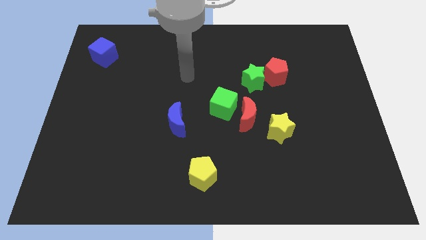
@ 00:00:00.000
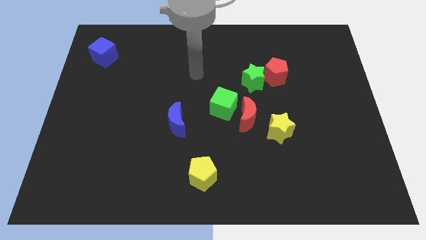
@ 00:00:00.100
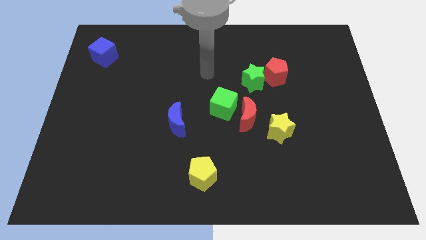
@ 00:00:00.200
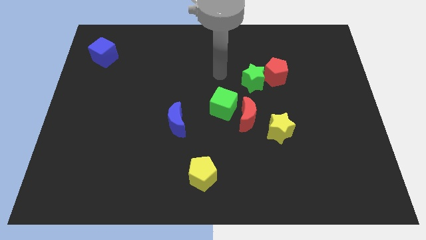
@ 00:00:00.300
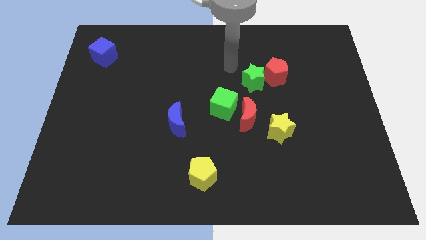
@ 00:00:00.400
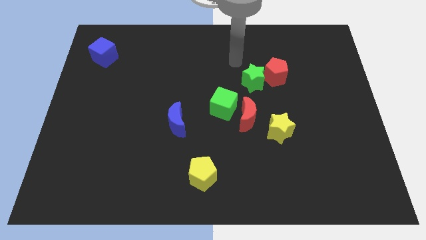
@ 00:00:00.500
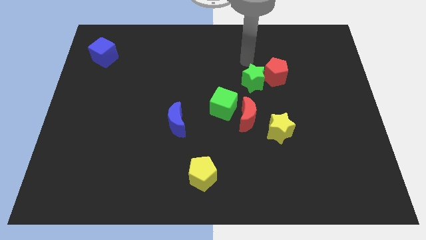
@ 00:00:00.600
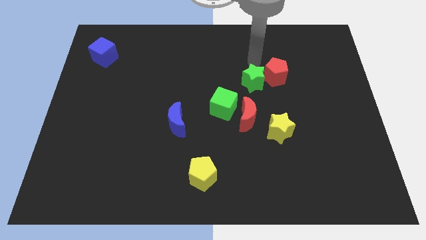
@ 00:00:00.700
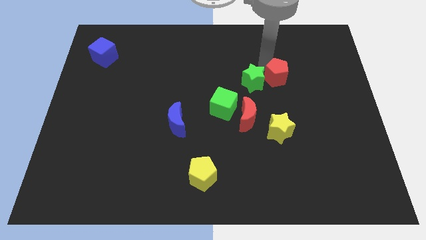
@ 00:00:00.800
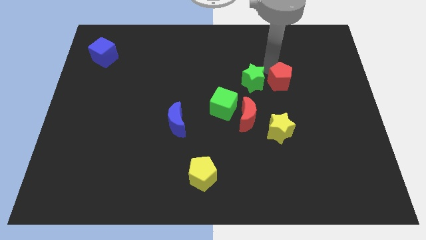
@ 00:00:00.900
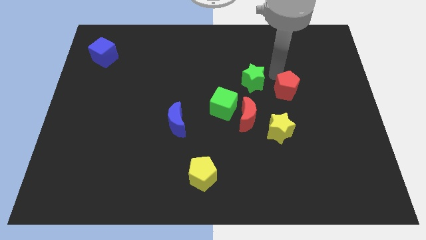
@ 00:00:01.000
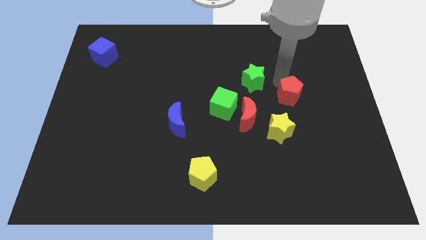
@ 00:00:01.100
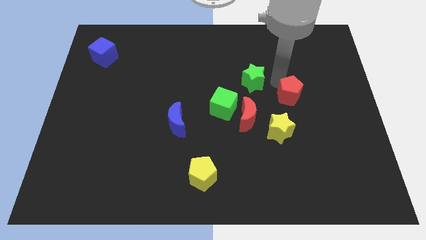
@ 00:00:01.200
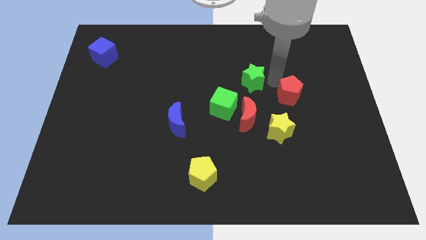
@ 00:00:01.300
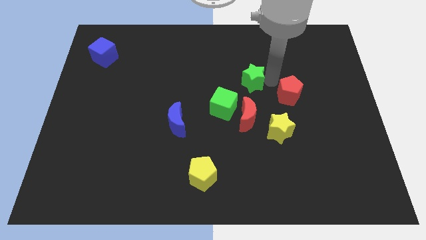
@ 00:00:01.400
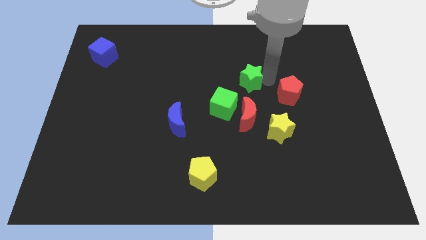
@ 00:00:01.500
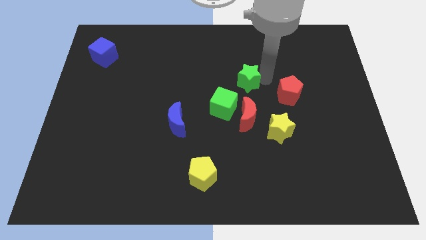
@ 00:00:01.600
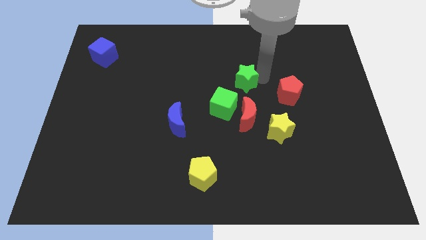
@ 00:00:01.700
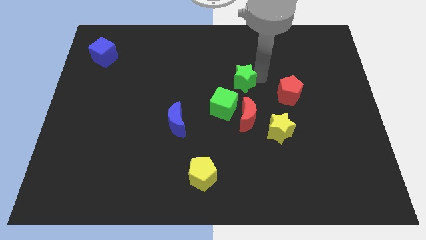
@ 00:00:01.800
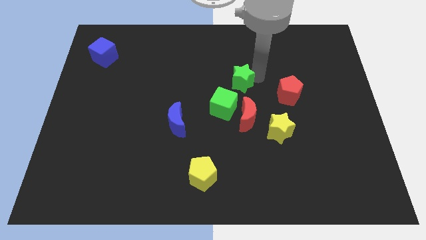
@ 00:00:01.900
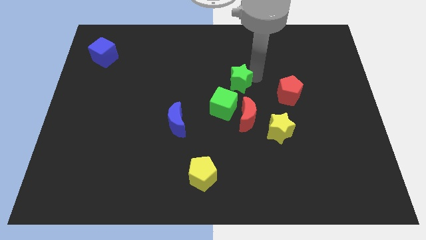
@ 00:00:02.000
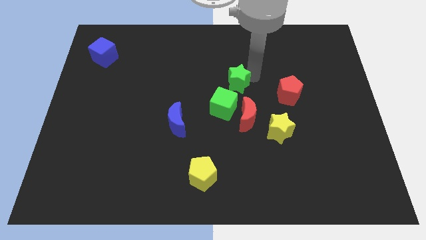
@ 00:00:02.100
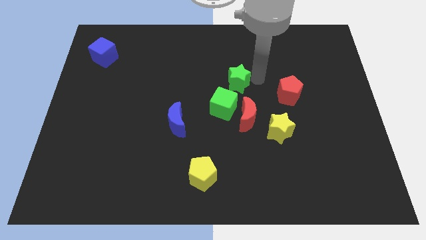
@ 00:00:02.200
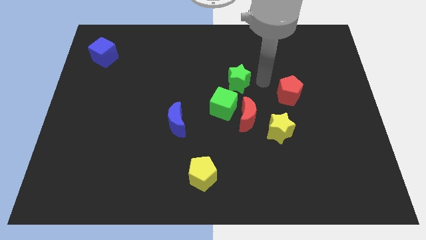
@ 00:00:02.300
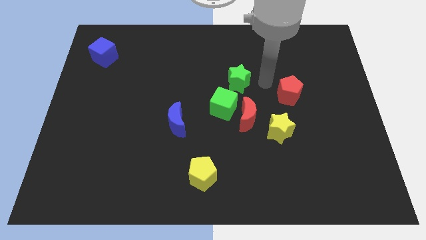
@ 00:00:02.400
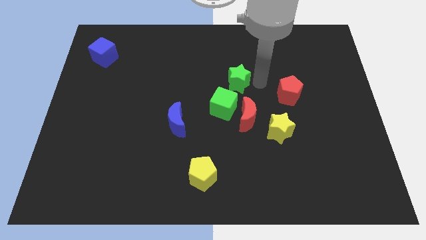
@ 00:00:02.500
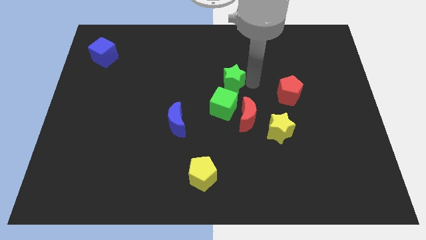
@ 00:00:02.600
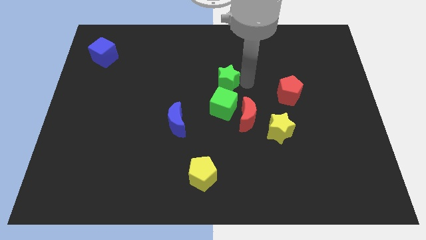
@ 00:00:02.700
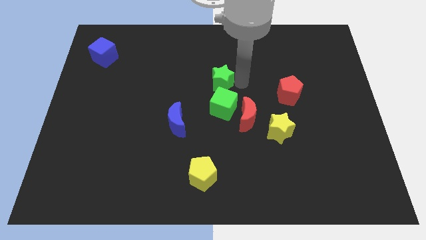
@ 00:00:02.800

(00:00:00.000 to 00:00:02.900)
slightly push the green star left

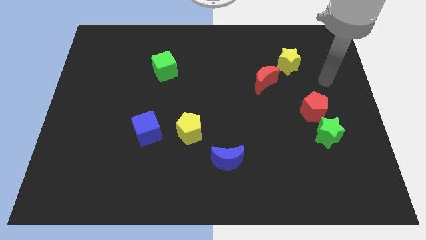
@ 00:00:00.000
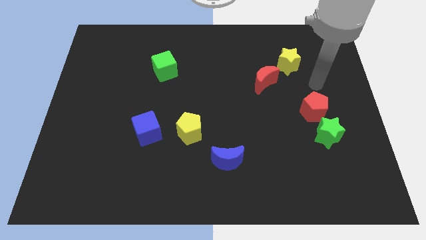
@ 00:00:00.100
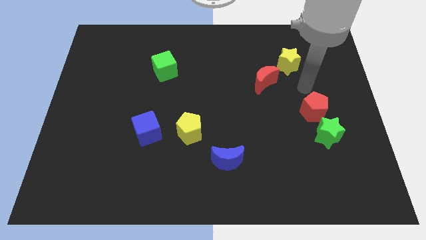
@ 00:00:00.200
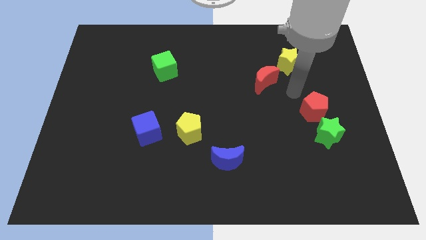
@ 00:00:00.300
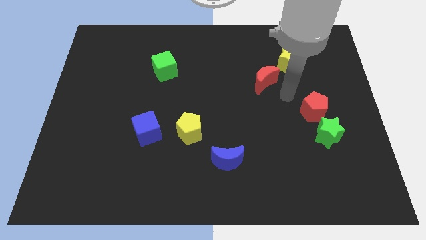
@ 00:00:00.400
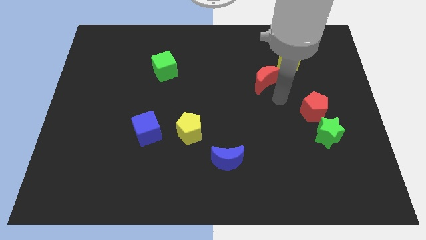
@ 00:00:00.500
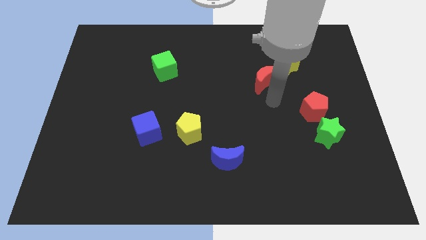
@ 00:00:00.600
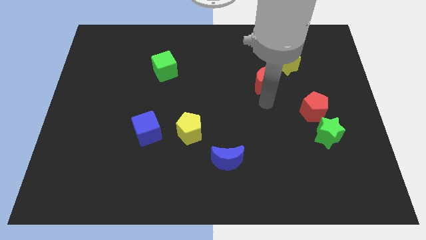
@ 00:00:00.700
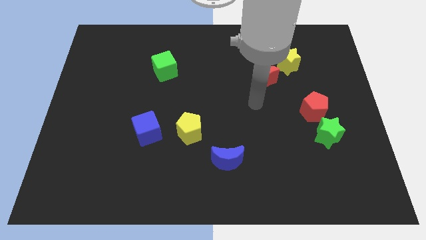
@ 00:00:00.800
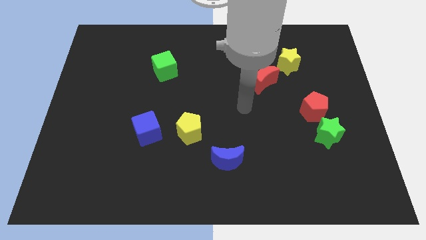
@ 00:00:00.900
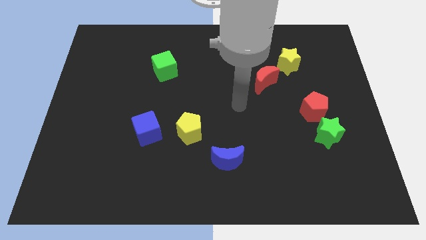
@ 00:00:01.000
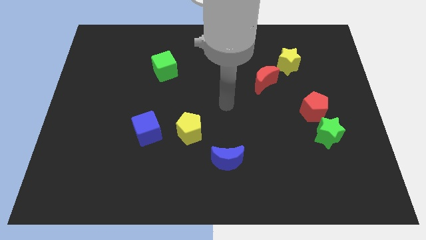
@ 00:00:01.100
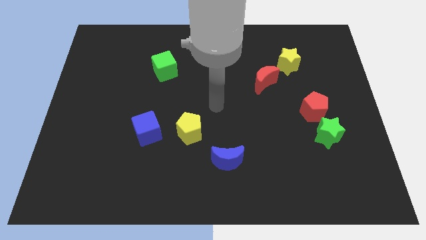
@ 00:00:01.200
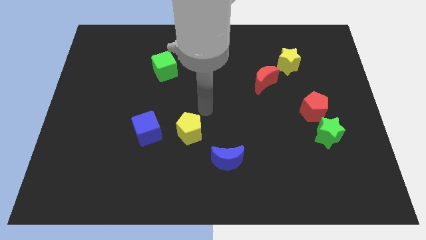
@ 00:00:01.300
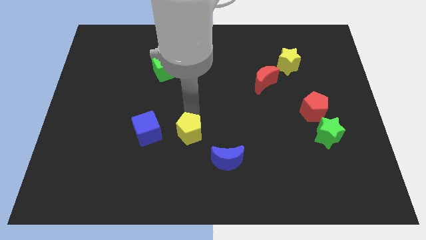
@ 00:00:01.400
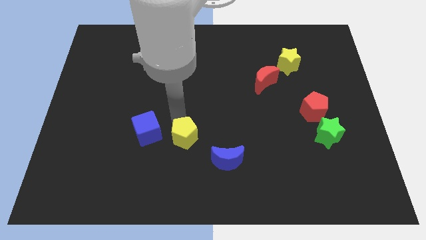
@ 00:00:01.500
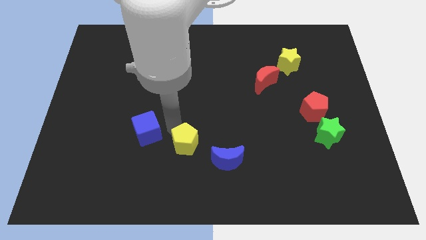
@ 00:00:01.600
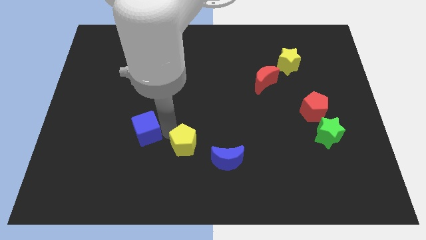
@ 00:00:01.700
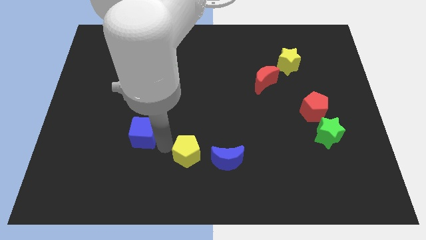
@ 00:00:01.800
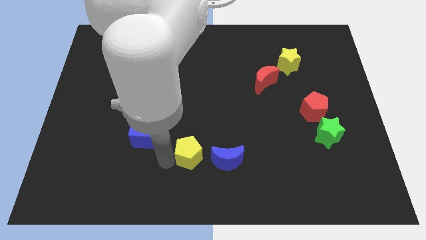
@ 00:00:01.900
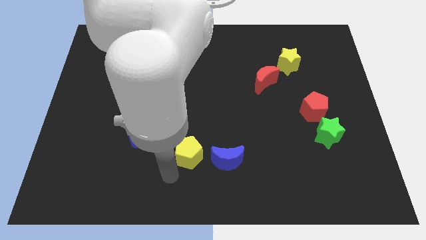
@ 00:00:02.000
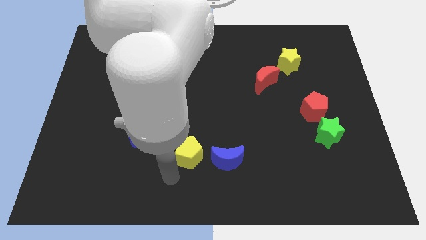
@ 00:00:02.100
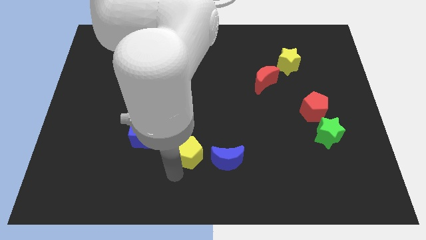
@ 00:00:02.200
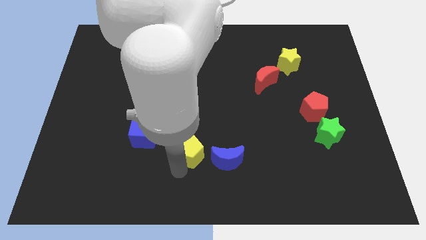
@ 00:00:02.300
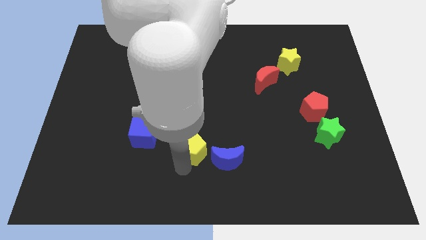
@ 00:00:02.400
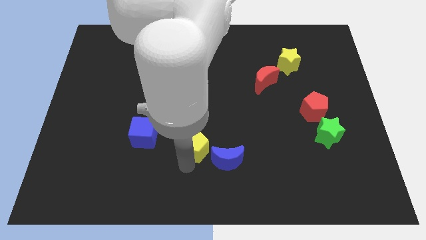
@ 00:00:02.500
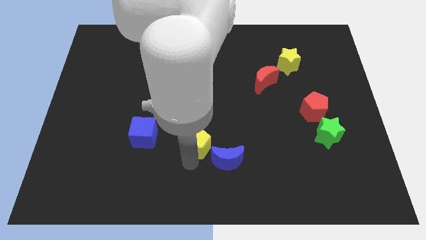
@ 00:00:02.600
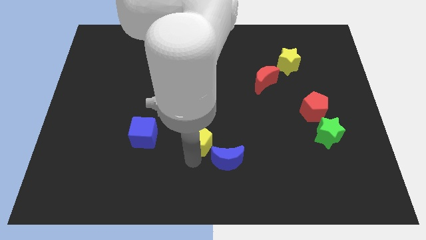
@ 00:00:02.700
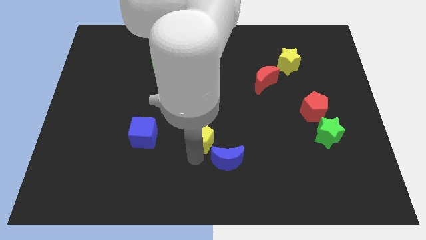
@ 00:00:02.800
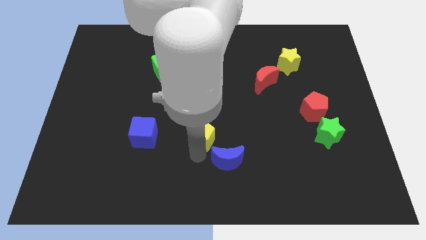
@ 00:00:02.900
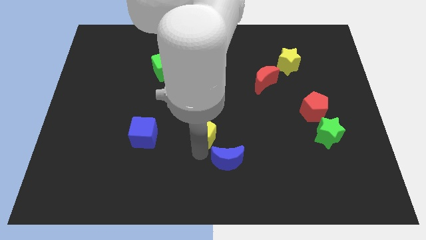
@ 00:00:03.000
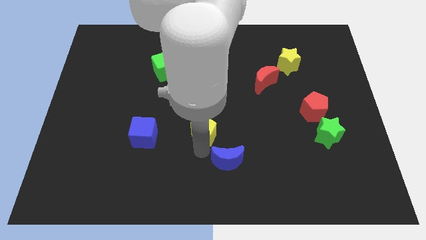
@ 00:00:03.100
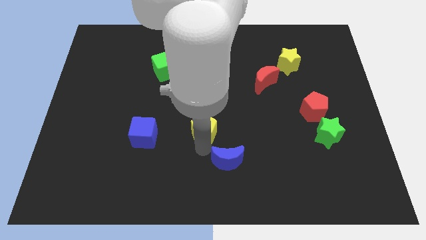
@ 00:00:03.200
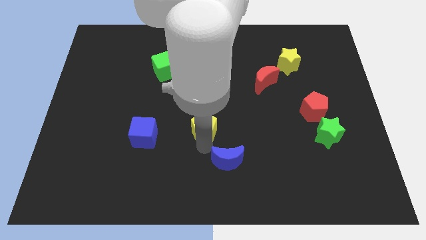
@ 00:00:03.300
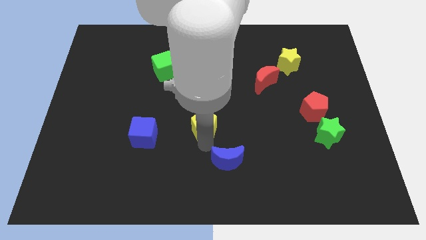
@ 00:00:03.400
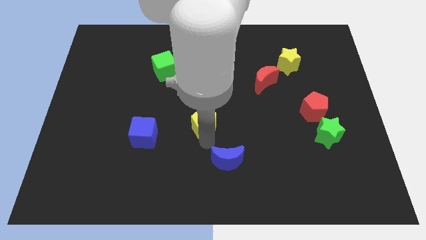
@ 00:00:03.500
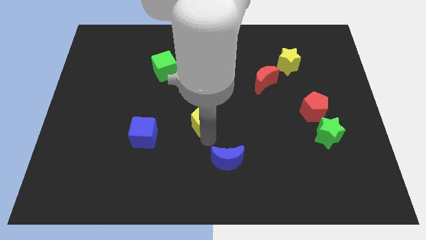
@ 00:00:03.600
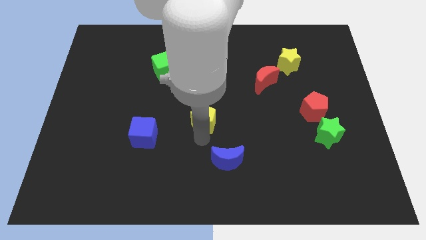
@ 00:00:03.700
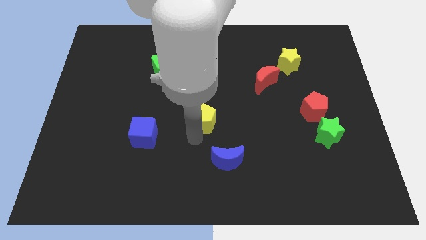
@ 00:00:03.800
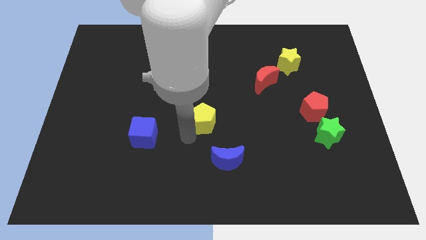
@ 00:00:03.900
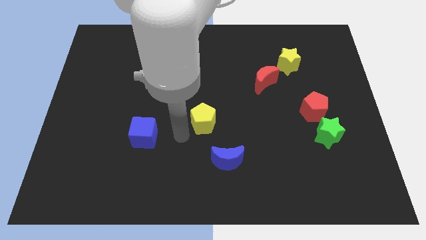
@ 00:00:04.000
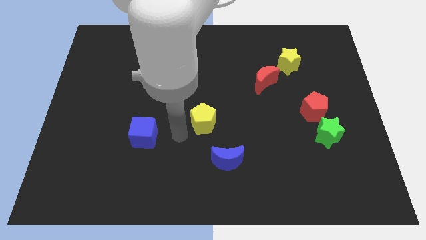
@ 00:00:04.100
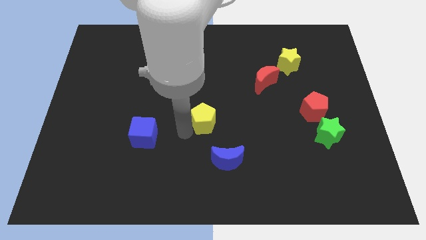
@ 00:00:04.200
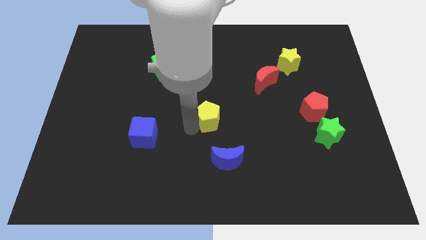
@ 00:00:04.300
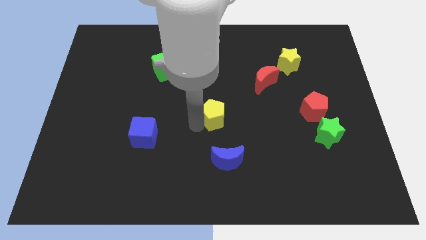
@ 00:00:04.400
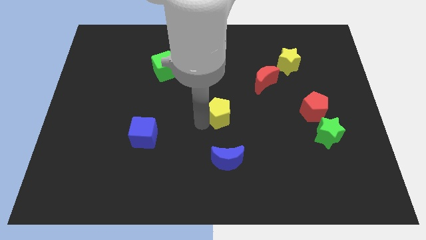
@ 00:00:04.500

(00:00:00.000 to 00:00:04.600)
push the yellow pentagon diagonally up and to the right somewhat

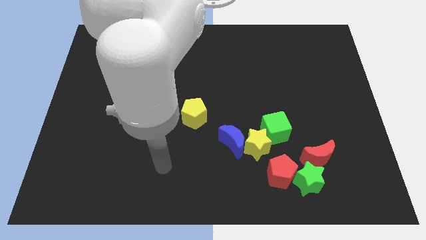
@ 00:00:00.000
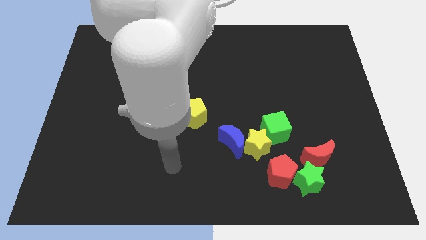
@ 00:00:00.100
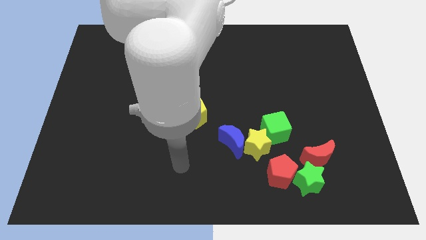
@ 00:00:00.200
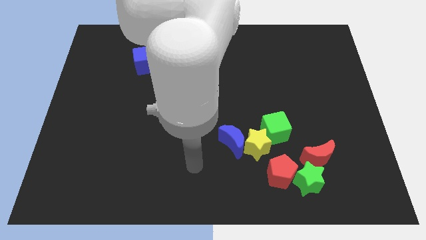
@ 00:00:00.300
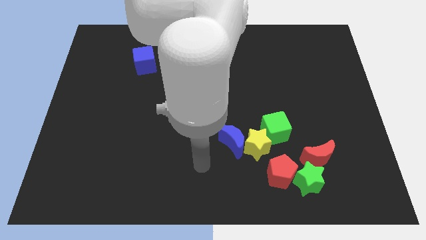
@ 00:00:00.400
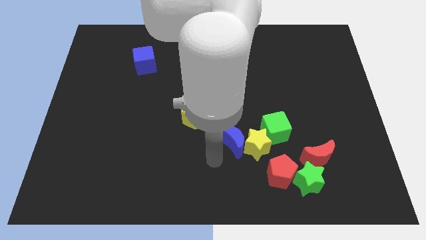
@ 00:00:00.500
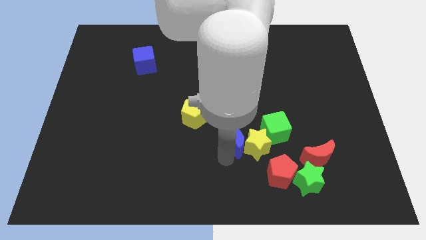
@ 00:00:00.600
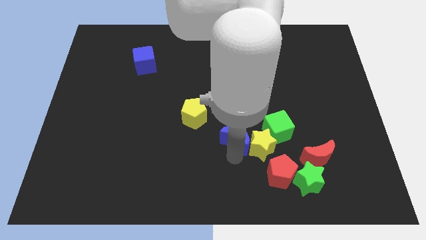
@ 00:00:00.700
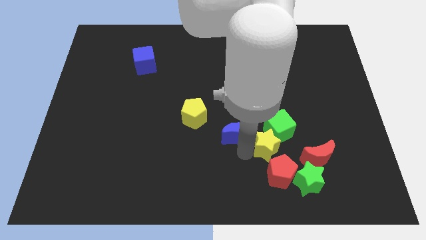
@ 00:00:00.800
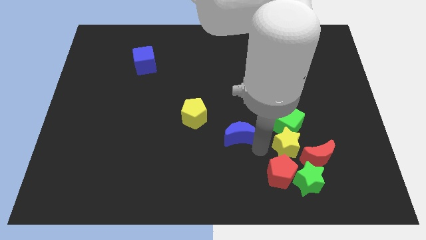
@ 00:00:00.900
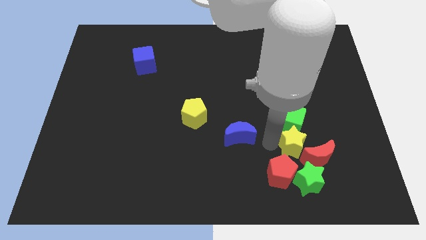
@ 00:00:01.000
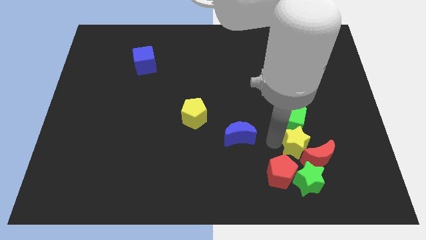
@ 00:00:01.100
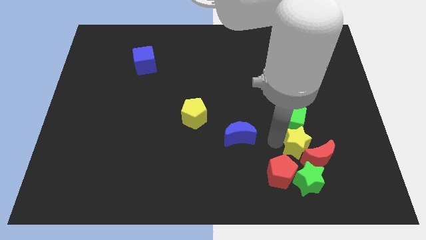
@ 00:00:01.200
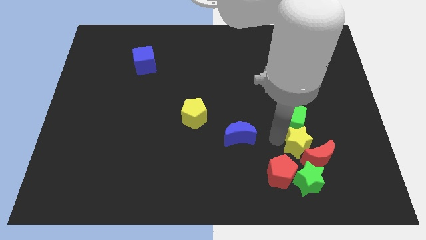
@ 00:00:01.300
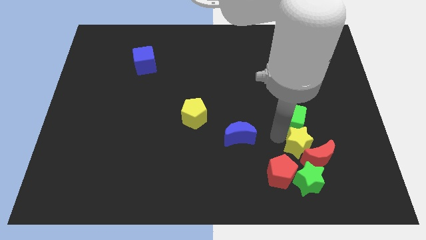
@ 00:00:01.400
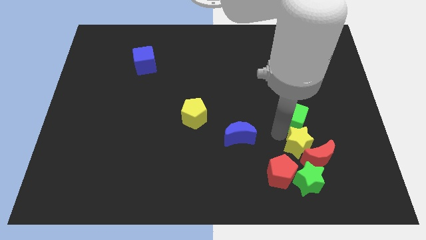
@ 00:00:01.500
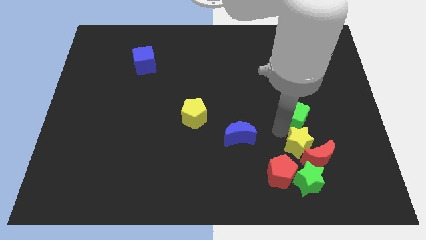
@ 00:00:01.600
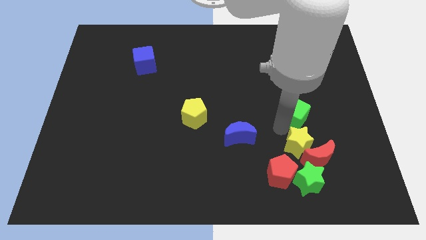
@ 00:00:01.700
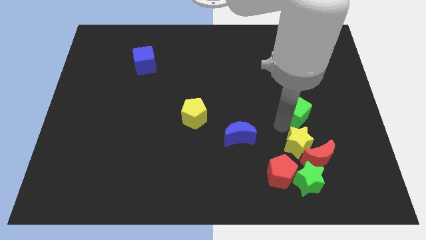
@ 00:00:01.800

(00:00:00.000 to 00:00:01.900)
slightly slide the green cube up and to the right
